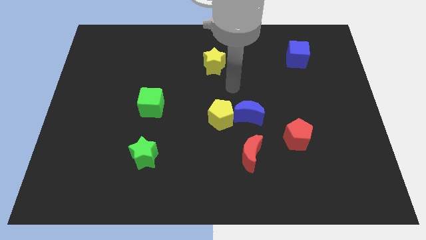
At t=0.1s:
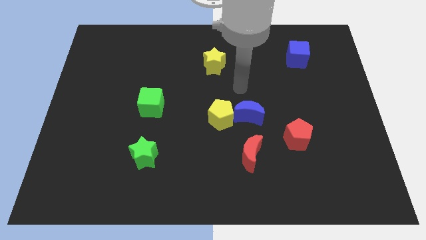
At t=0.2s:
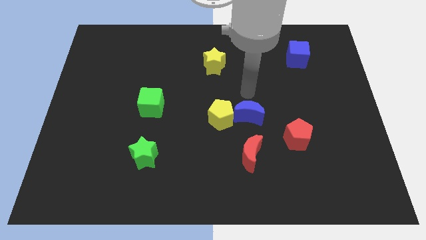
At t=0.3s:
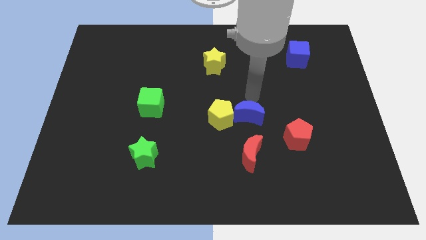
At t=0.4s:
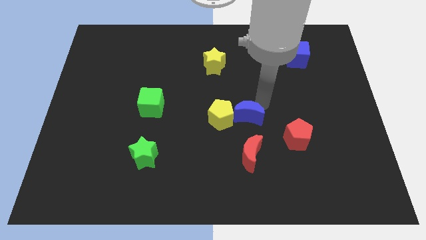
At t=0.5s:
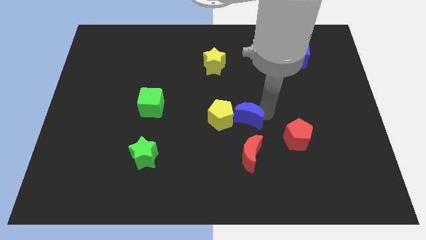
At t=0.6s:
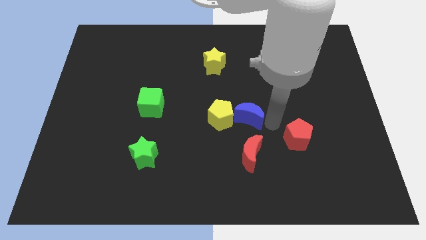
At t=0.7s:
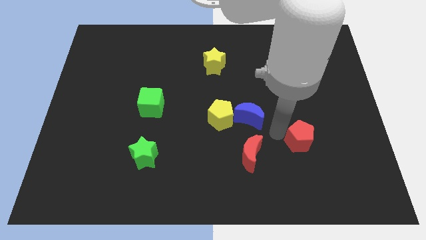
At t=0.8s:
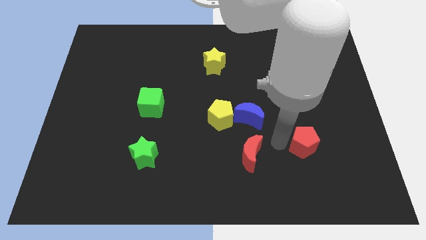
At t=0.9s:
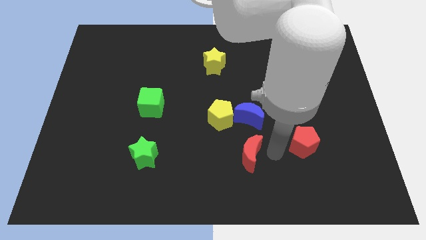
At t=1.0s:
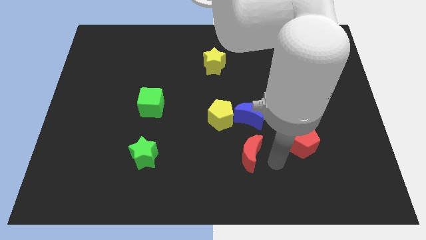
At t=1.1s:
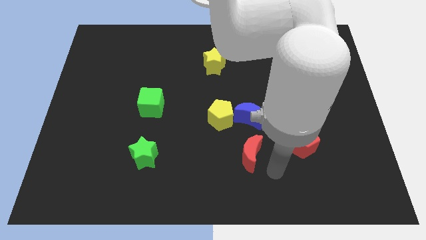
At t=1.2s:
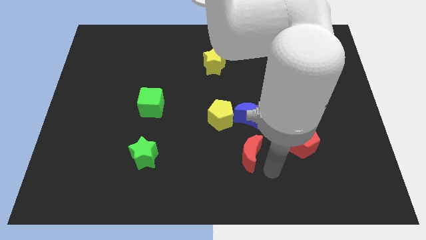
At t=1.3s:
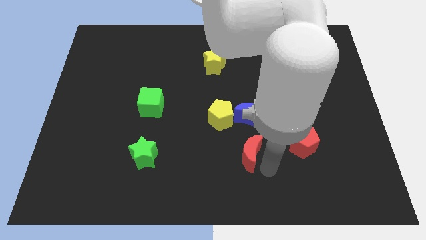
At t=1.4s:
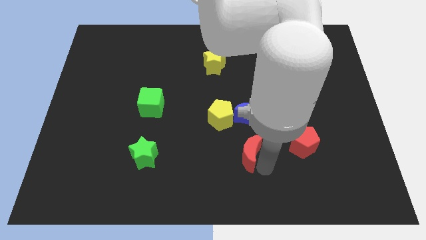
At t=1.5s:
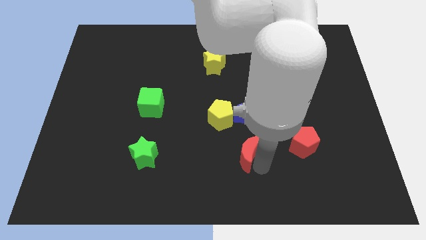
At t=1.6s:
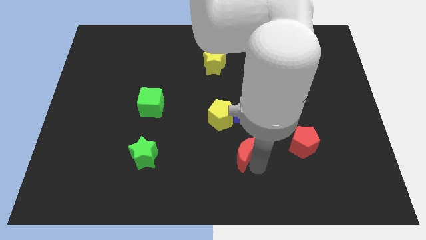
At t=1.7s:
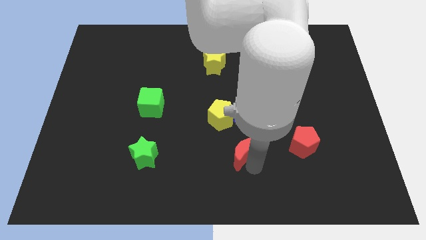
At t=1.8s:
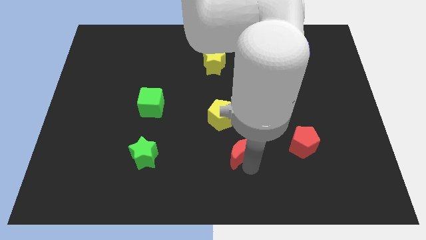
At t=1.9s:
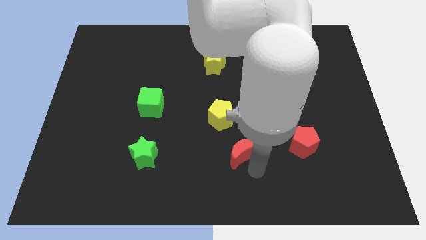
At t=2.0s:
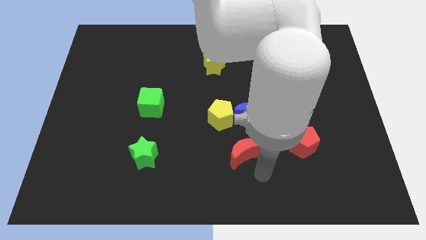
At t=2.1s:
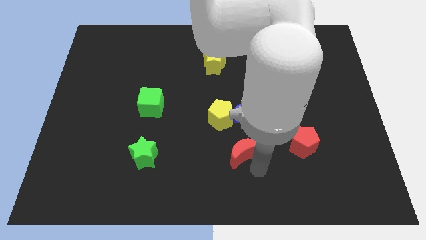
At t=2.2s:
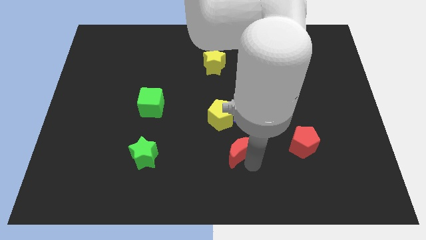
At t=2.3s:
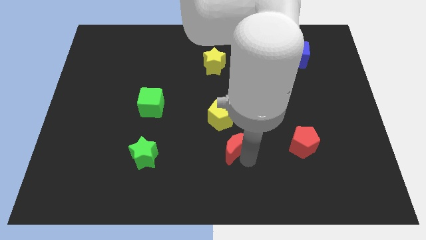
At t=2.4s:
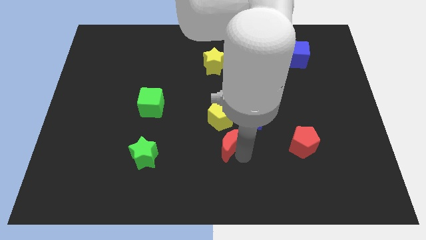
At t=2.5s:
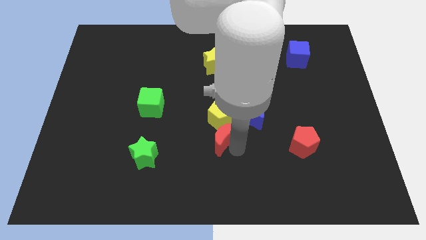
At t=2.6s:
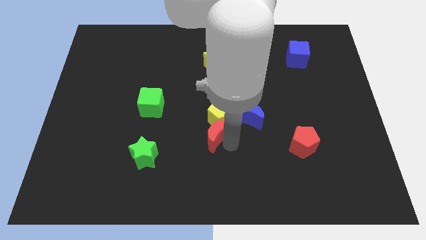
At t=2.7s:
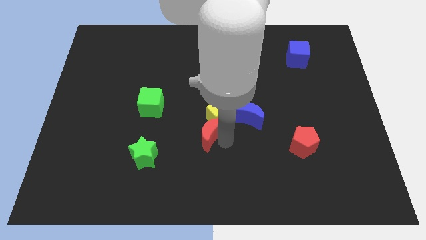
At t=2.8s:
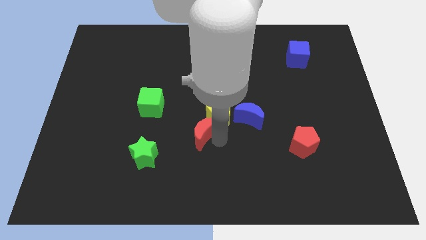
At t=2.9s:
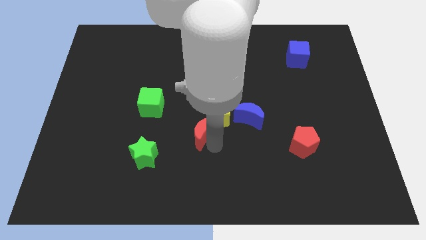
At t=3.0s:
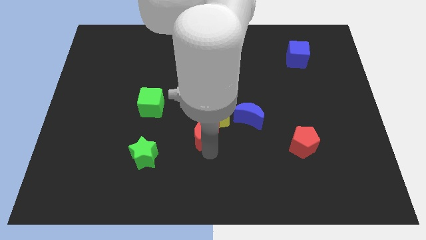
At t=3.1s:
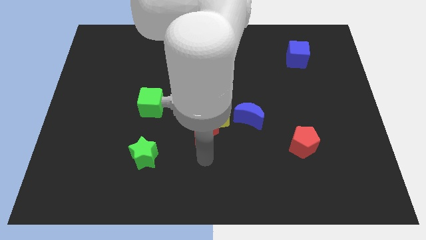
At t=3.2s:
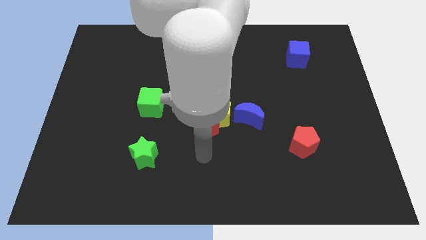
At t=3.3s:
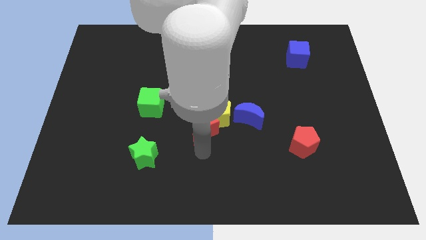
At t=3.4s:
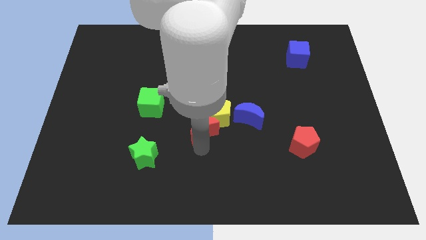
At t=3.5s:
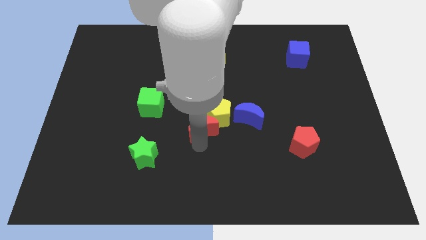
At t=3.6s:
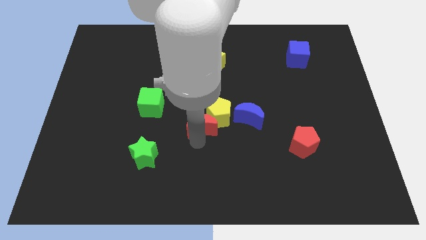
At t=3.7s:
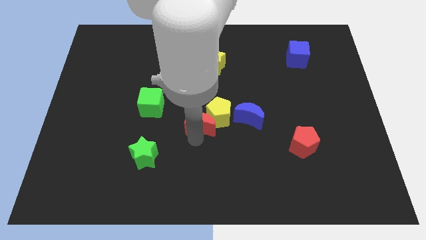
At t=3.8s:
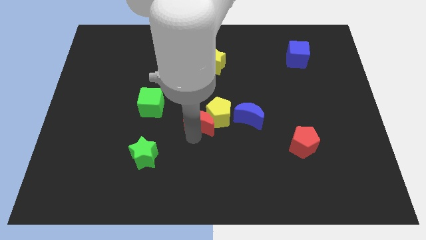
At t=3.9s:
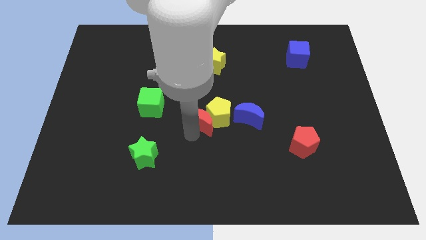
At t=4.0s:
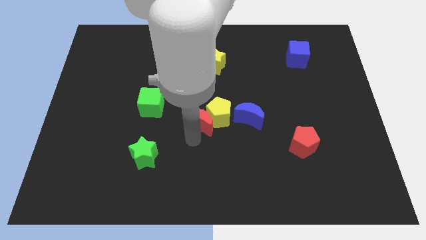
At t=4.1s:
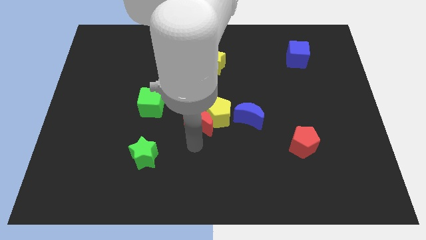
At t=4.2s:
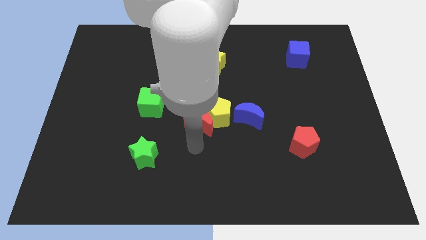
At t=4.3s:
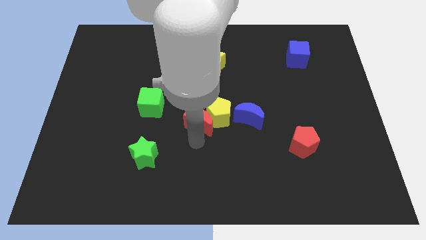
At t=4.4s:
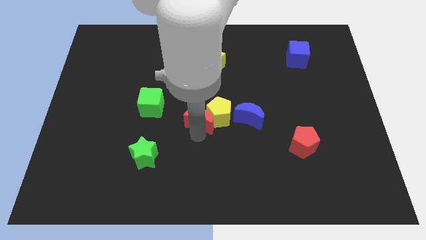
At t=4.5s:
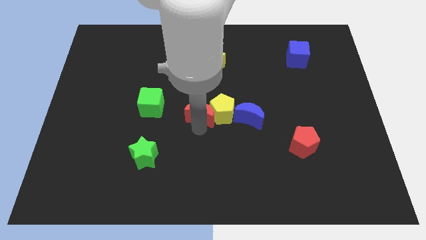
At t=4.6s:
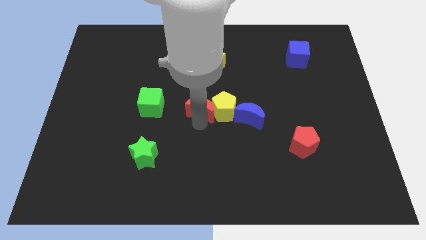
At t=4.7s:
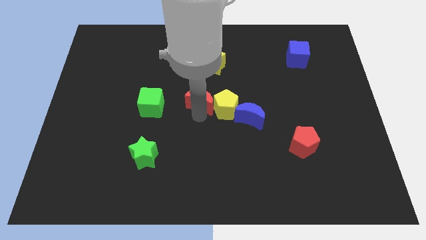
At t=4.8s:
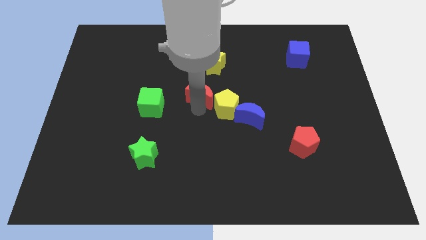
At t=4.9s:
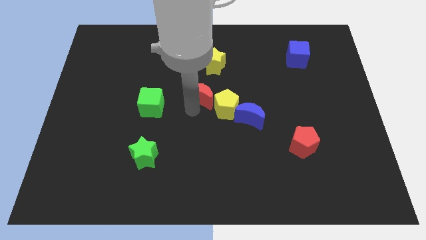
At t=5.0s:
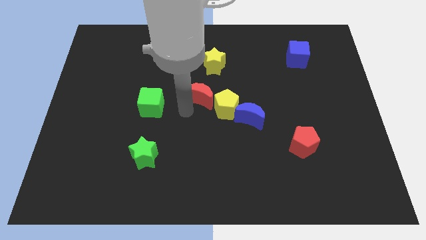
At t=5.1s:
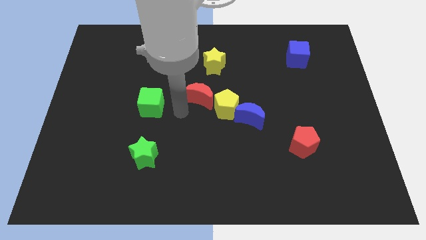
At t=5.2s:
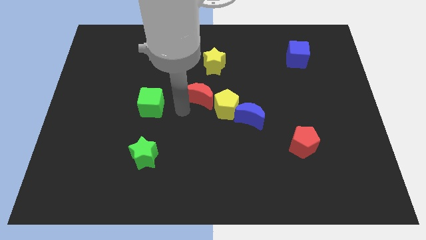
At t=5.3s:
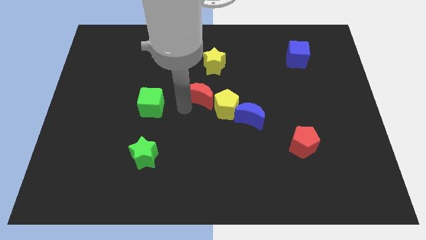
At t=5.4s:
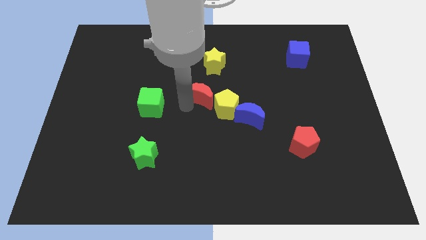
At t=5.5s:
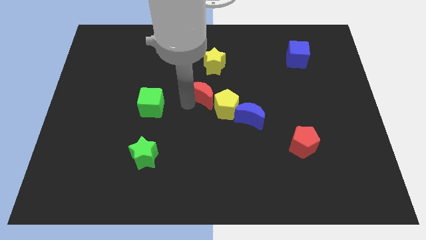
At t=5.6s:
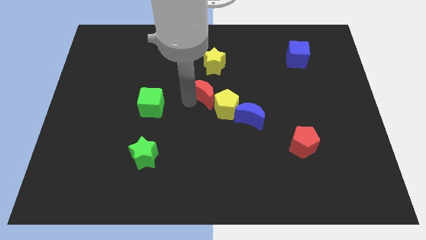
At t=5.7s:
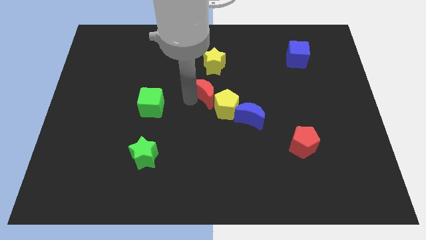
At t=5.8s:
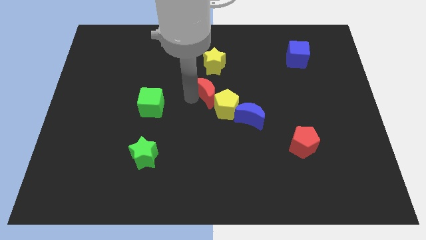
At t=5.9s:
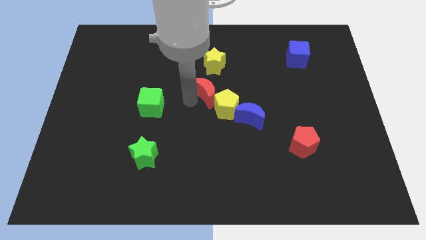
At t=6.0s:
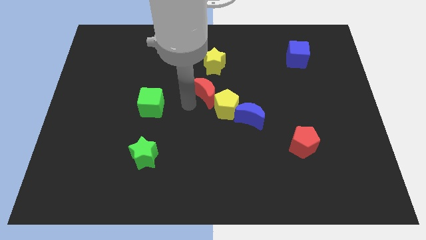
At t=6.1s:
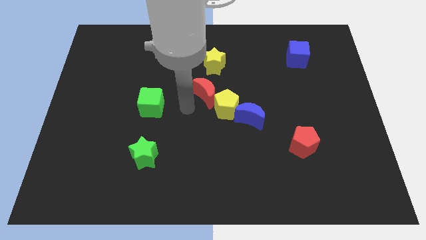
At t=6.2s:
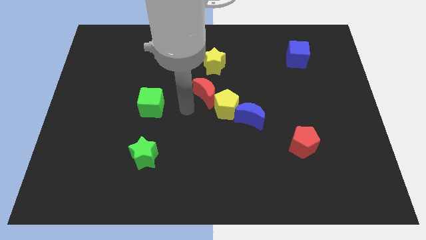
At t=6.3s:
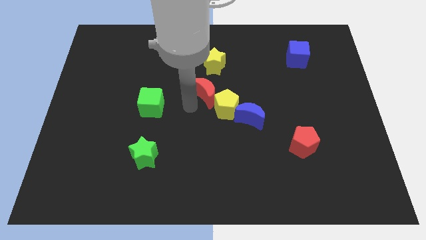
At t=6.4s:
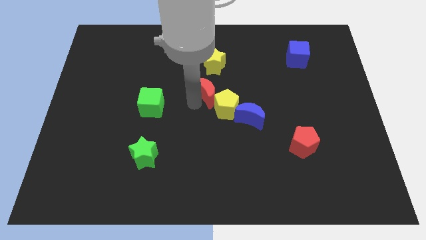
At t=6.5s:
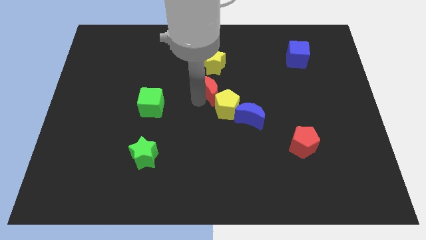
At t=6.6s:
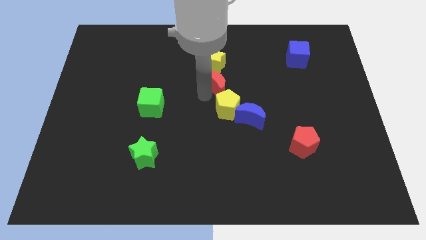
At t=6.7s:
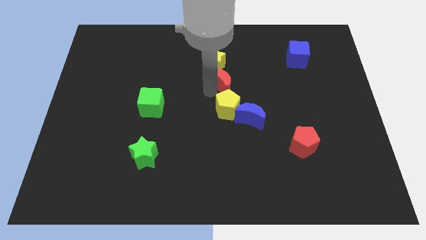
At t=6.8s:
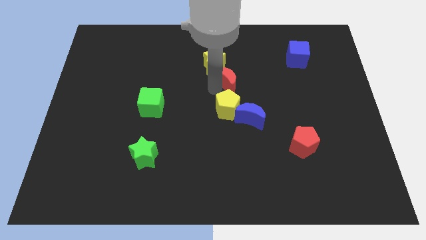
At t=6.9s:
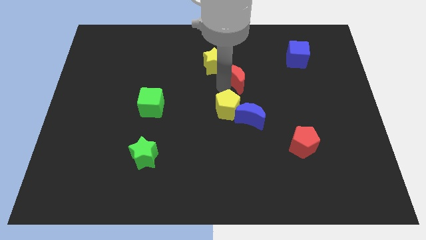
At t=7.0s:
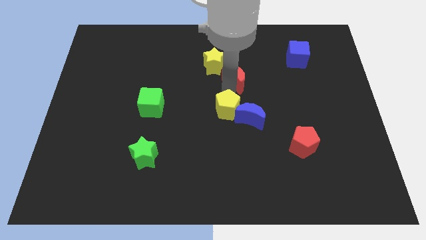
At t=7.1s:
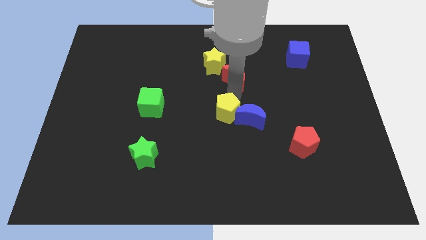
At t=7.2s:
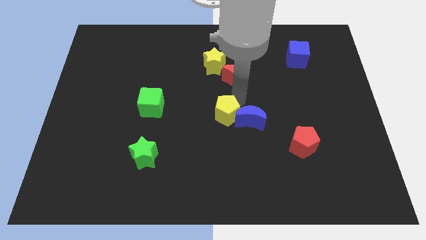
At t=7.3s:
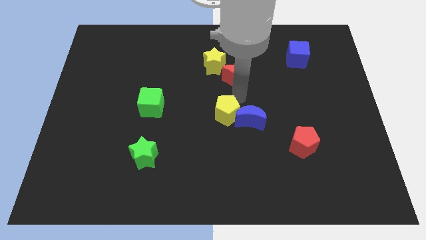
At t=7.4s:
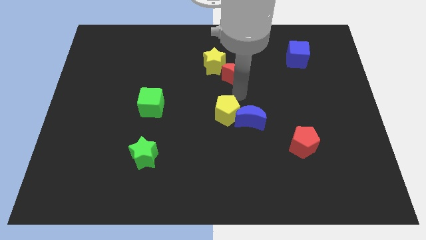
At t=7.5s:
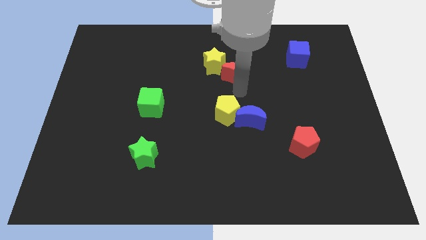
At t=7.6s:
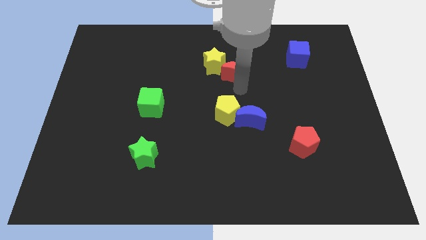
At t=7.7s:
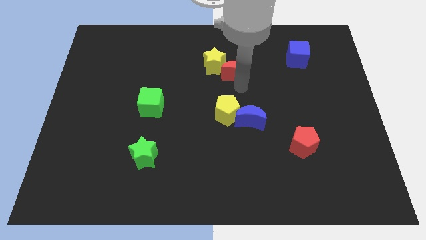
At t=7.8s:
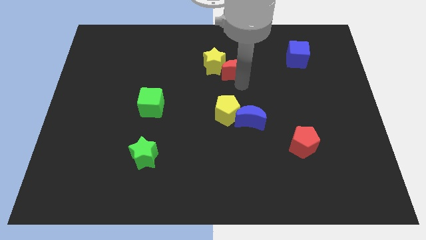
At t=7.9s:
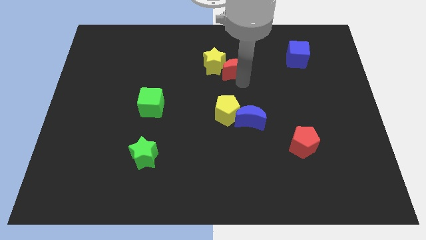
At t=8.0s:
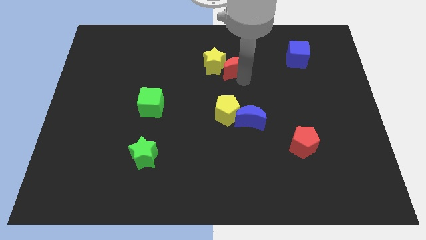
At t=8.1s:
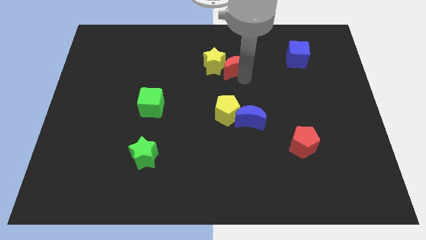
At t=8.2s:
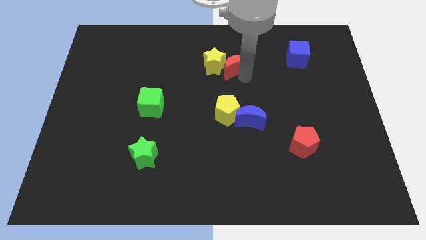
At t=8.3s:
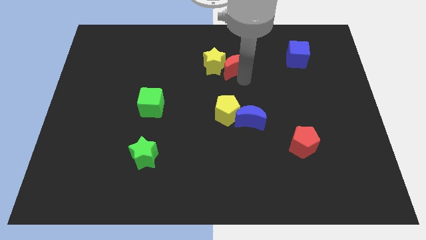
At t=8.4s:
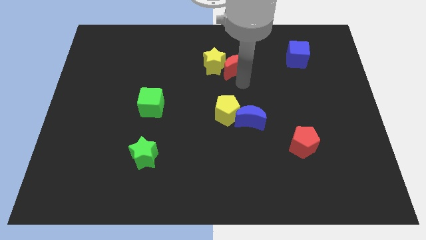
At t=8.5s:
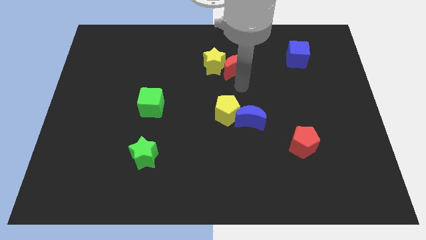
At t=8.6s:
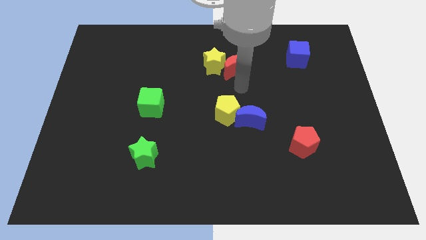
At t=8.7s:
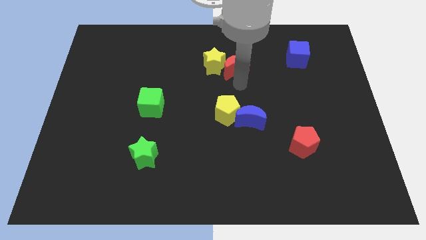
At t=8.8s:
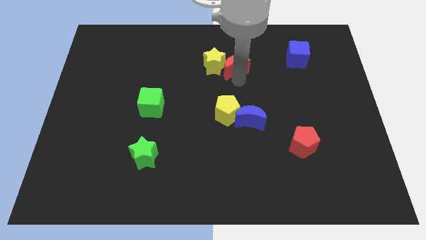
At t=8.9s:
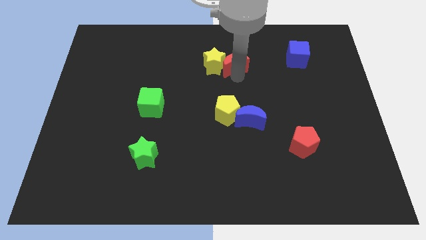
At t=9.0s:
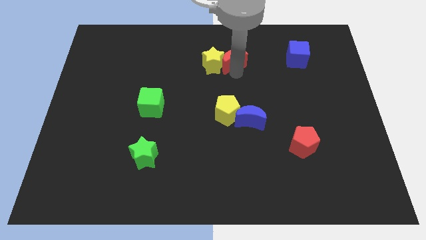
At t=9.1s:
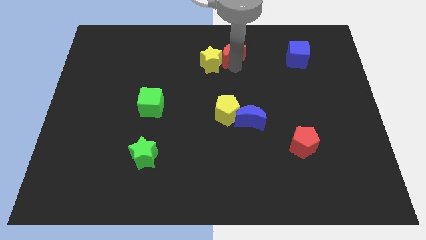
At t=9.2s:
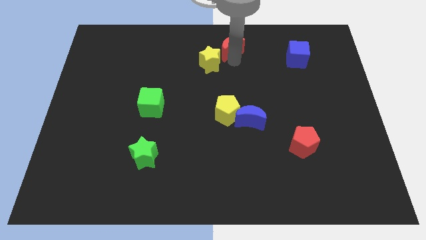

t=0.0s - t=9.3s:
put the red moon to the top side
